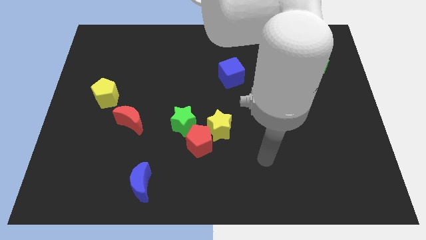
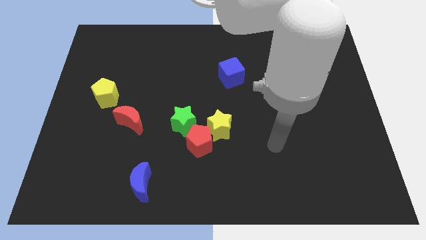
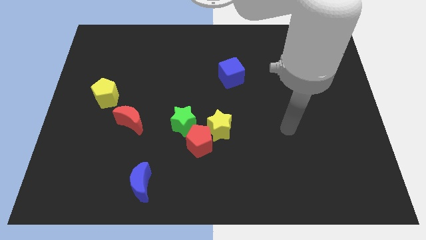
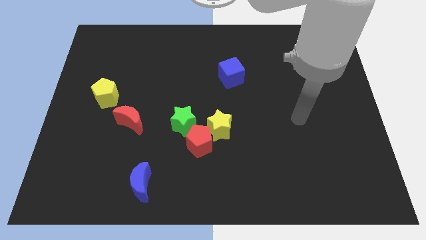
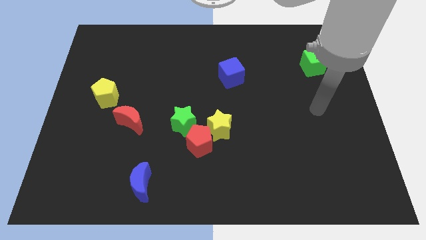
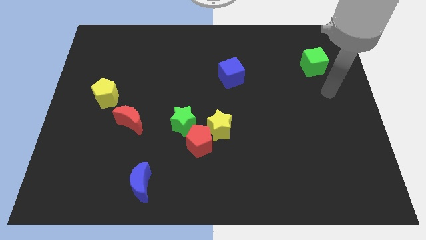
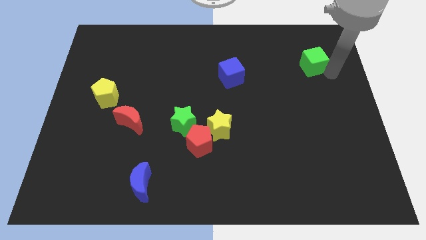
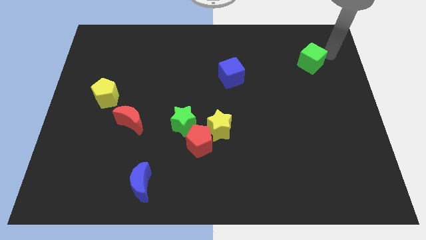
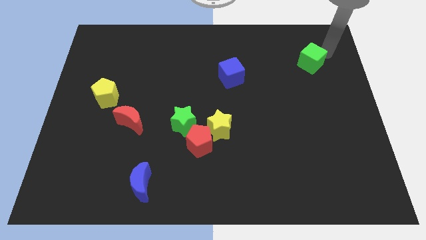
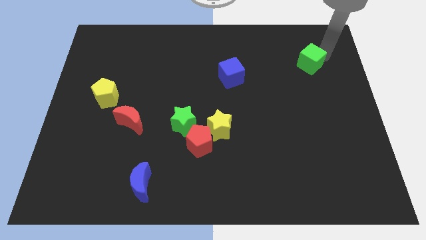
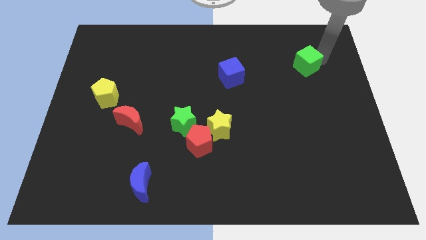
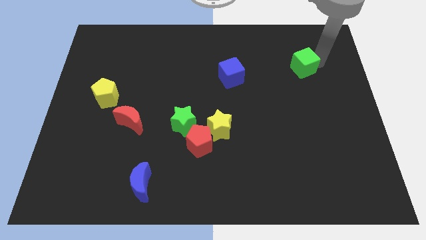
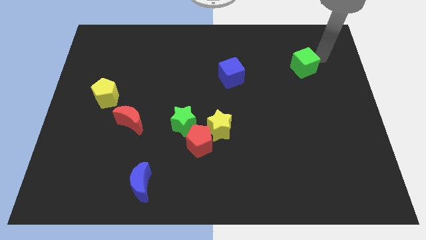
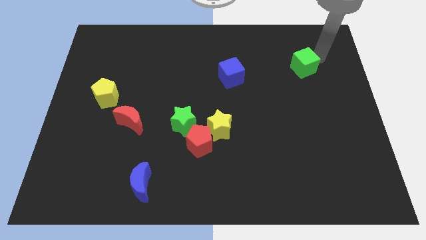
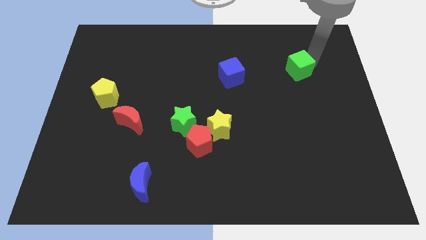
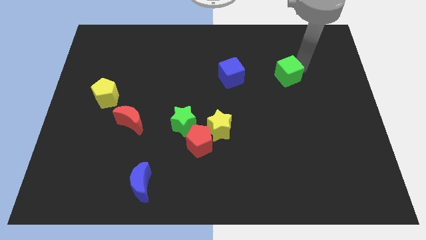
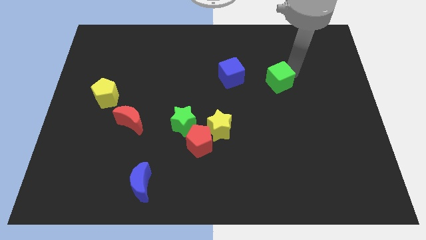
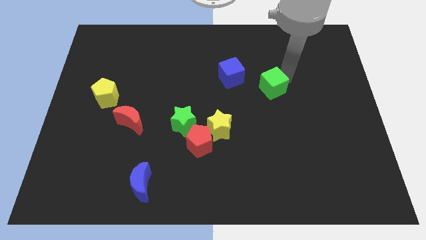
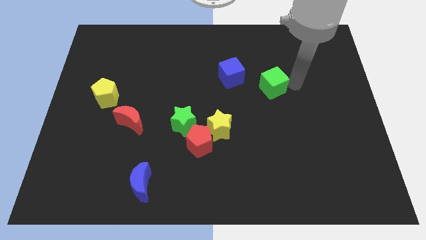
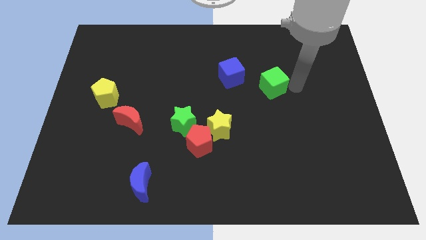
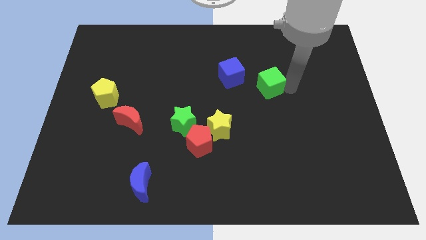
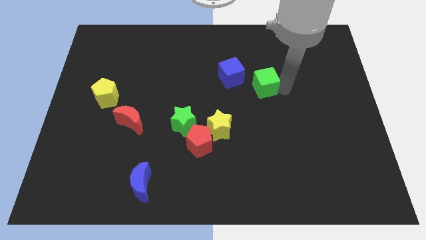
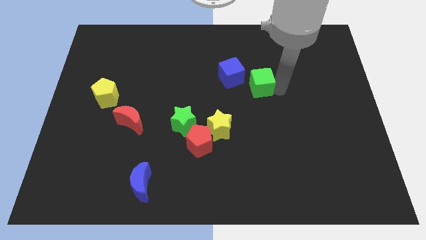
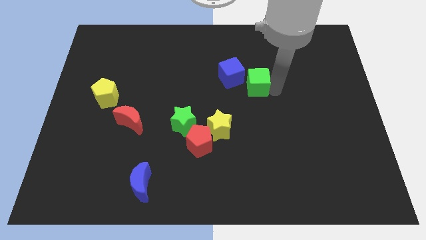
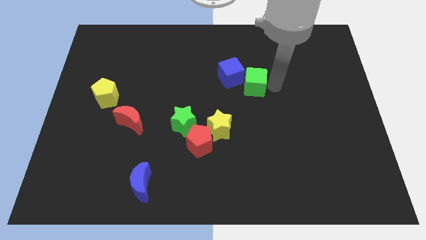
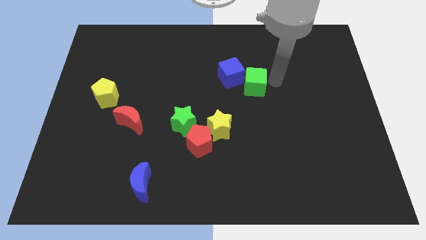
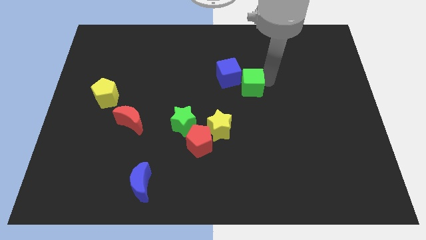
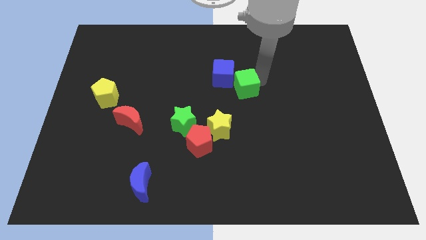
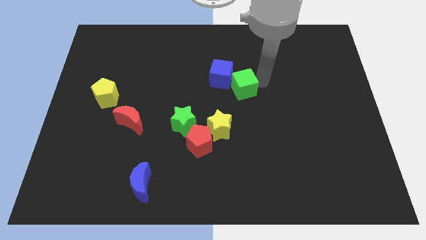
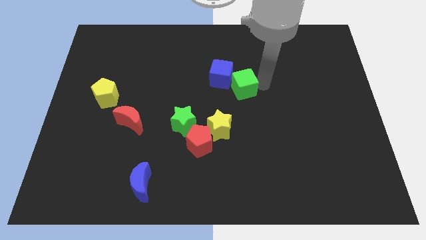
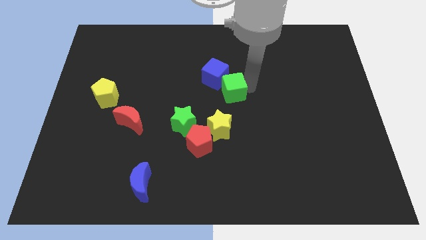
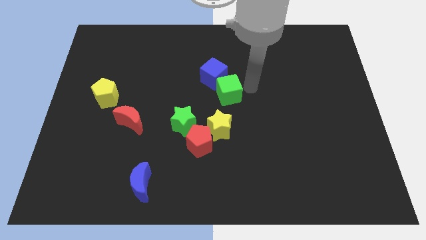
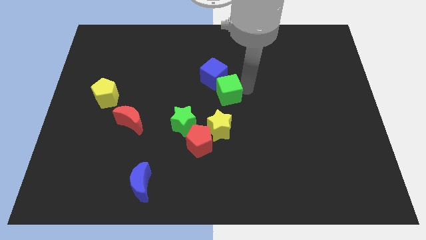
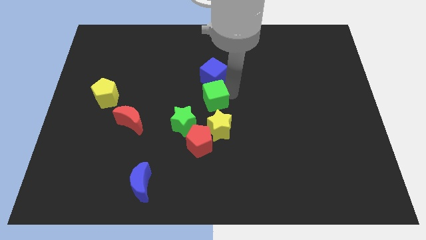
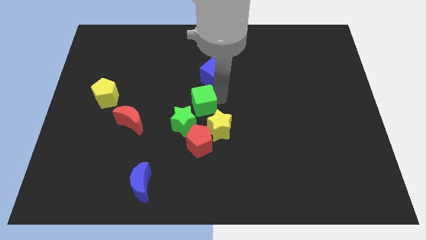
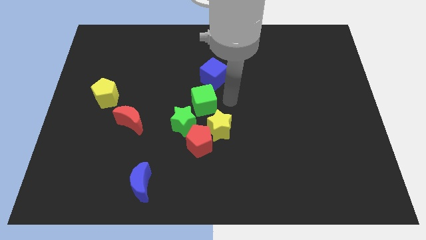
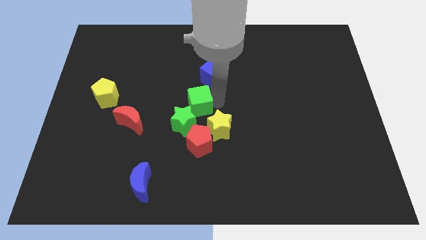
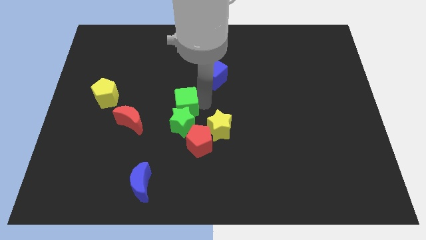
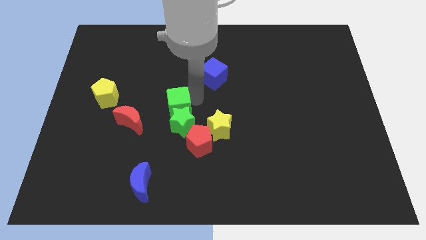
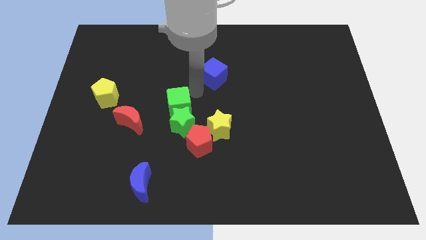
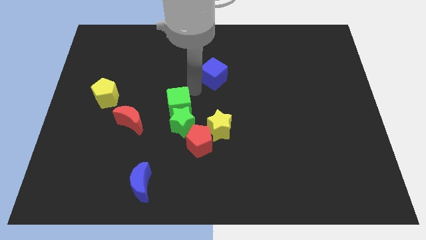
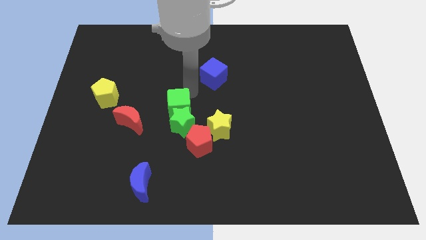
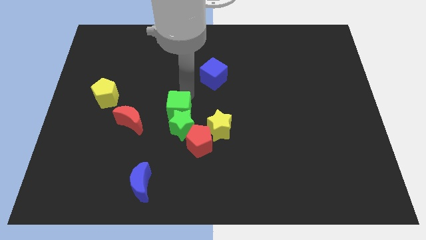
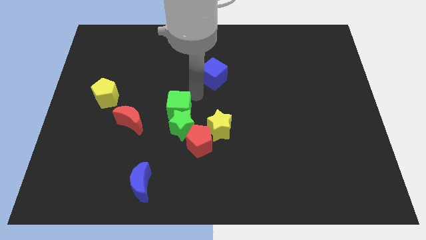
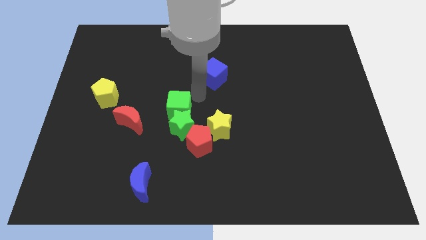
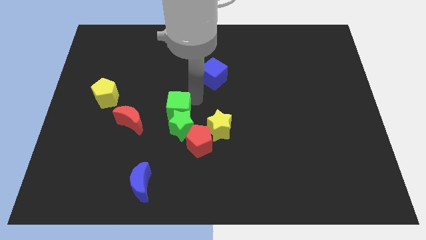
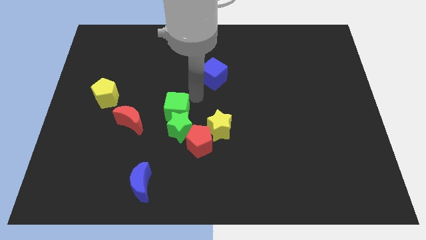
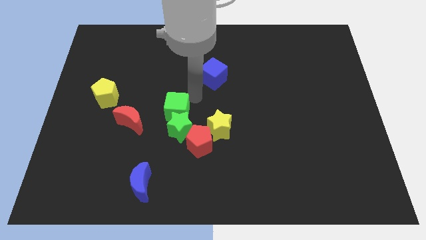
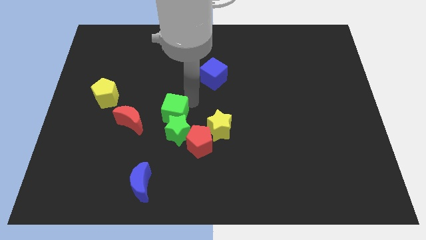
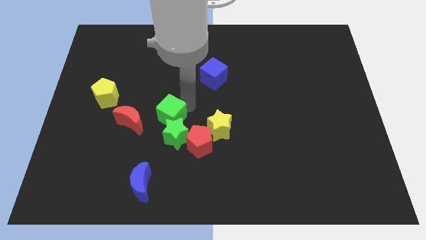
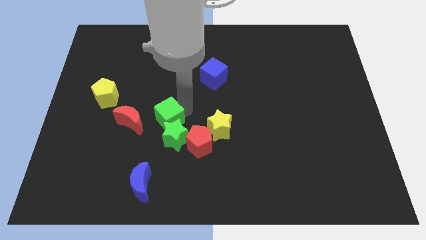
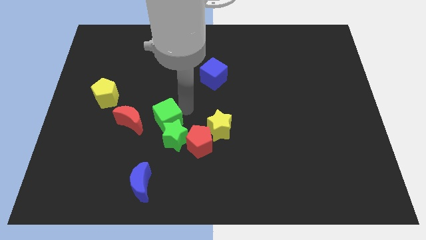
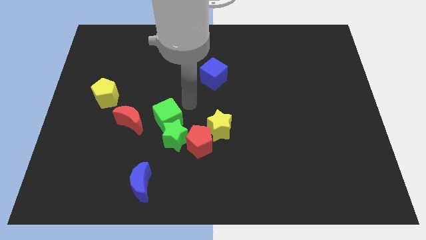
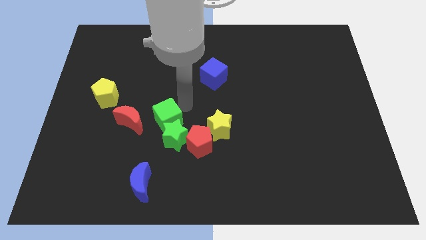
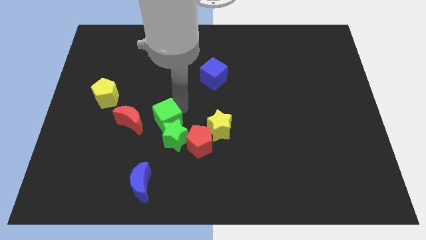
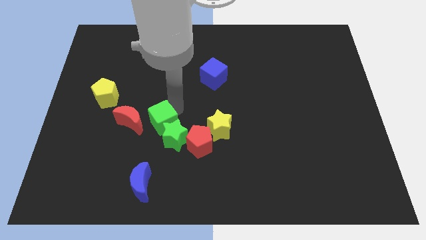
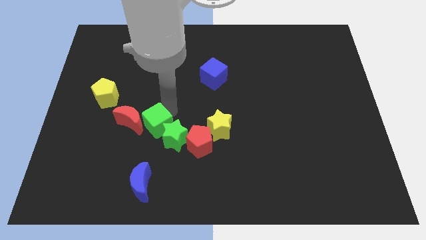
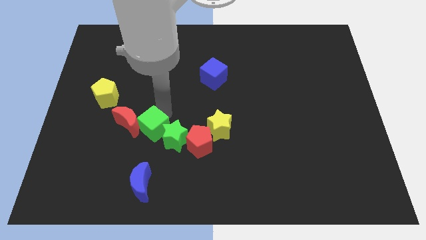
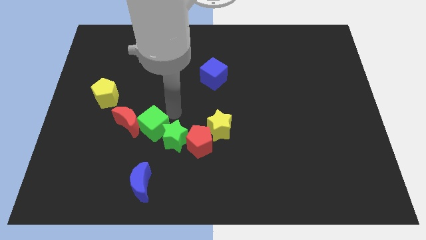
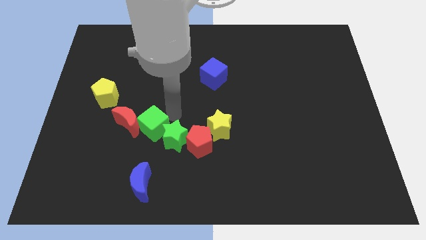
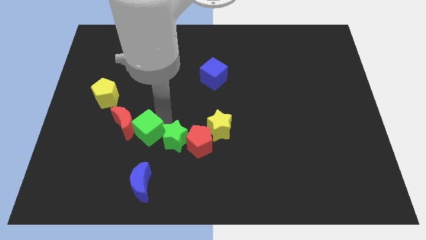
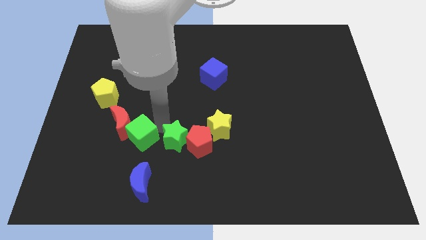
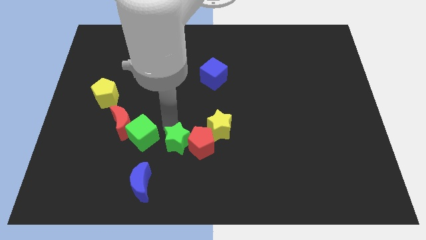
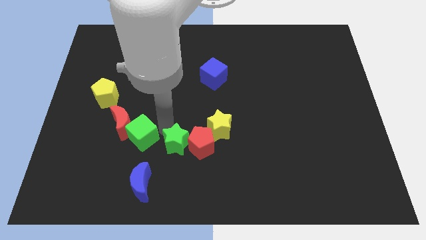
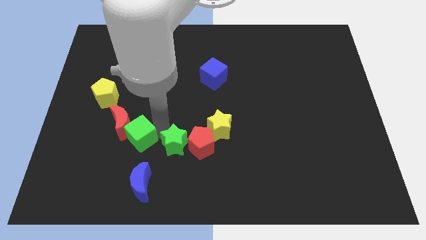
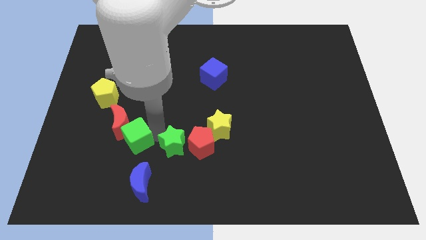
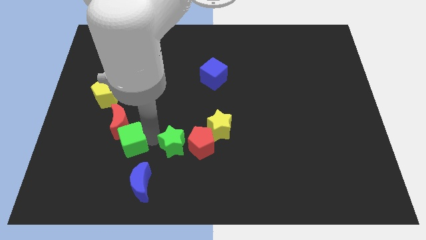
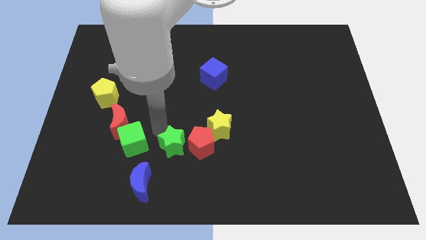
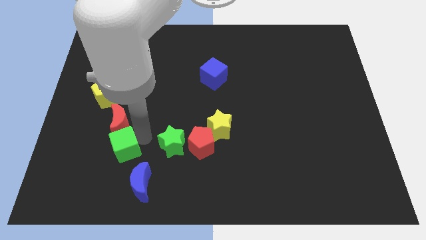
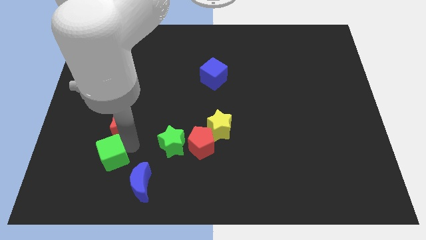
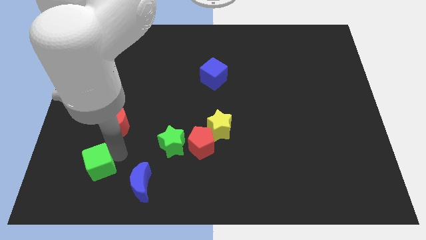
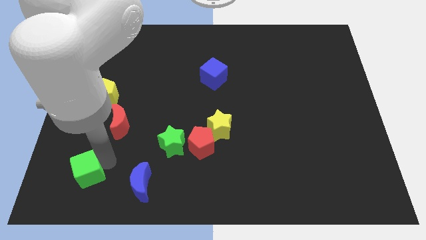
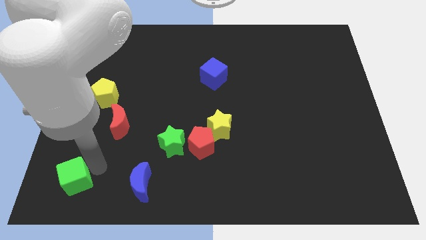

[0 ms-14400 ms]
put the green cube to the bottom left corner
